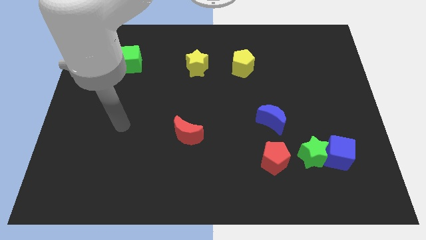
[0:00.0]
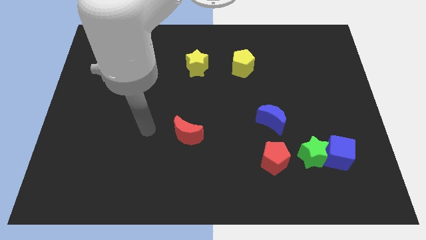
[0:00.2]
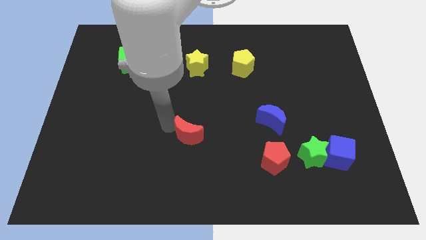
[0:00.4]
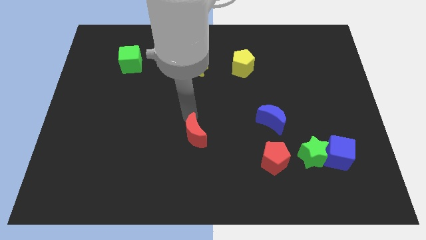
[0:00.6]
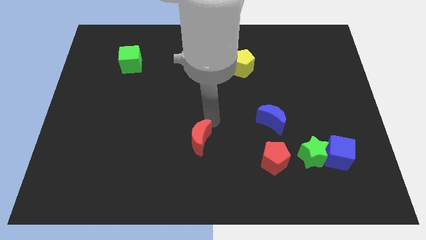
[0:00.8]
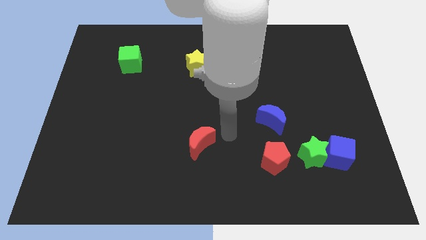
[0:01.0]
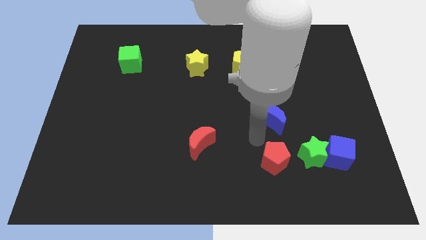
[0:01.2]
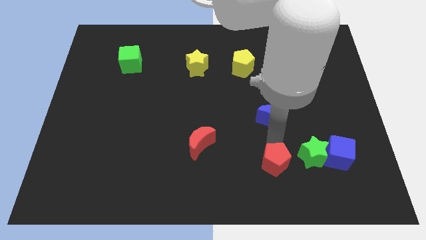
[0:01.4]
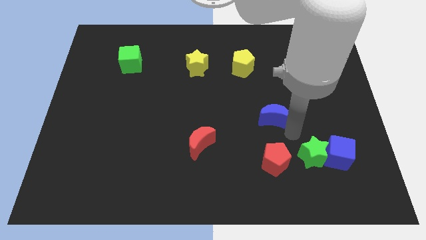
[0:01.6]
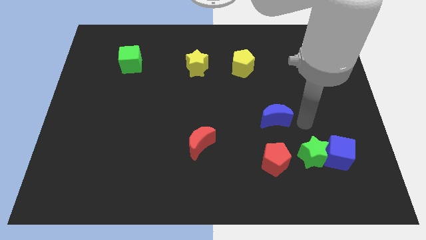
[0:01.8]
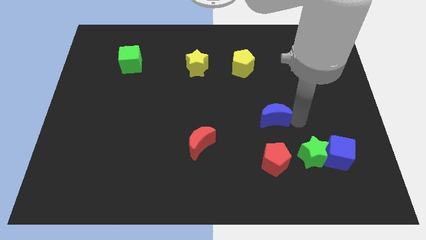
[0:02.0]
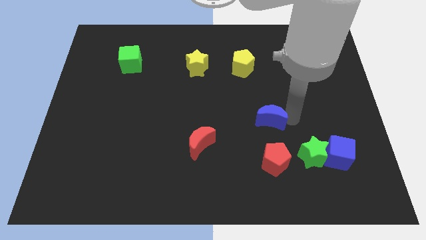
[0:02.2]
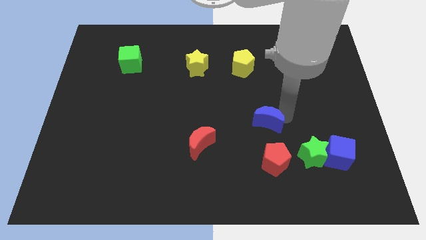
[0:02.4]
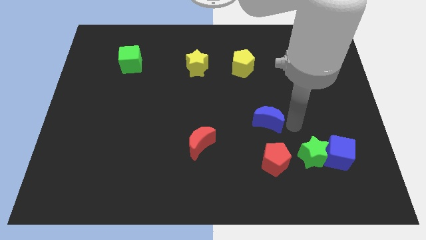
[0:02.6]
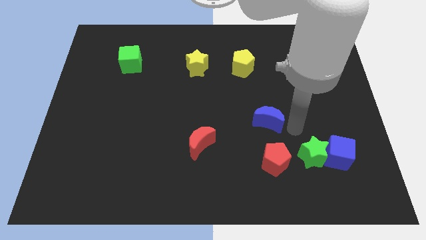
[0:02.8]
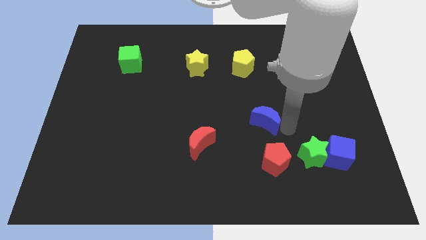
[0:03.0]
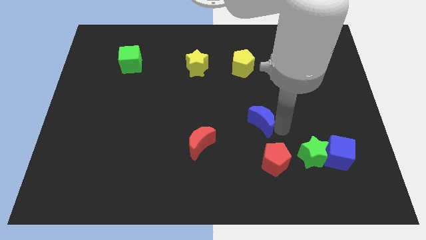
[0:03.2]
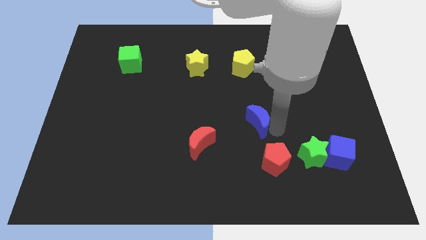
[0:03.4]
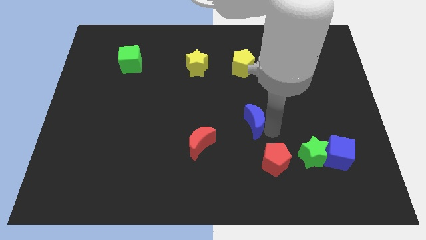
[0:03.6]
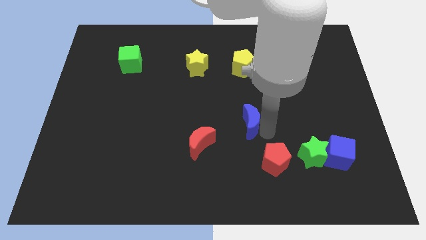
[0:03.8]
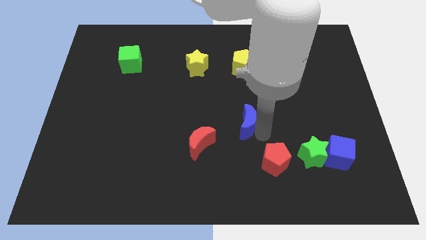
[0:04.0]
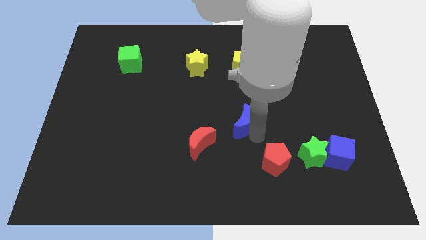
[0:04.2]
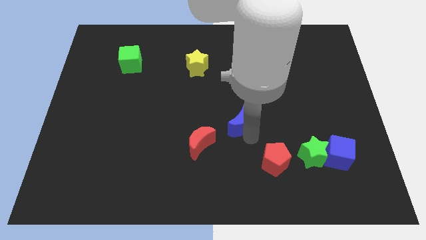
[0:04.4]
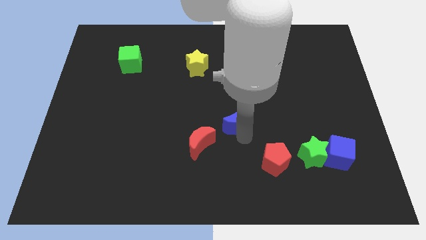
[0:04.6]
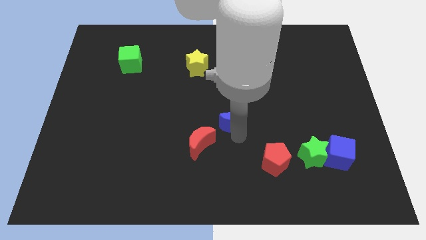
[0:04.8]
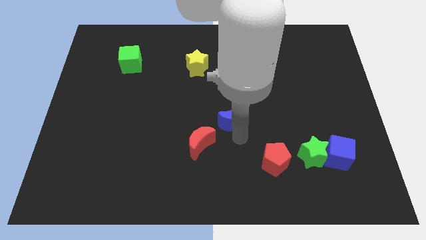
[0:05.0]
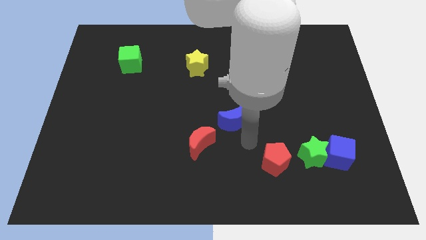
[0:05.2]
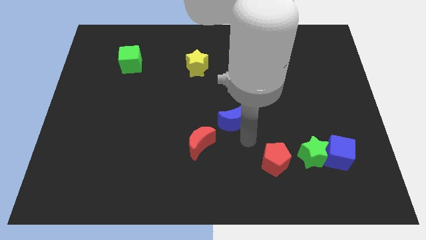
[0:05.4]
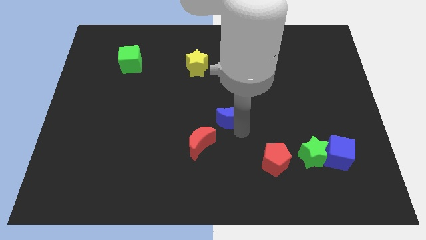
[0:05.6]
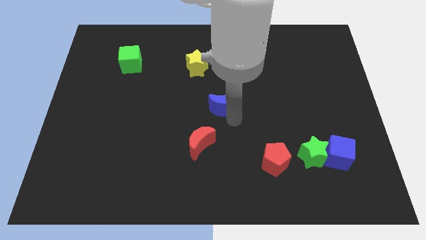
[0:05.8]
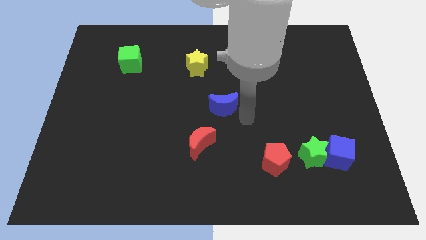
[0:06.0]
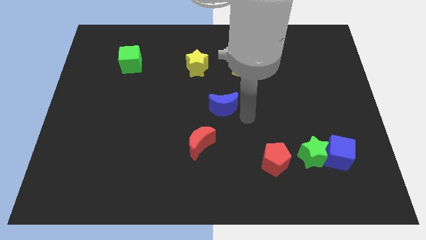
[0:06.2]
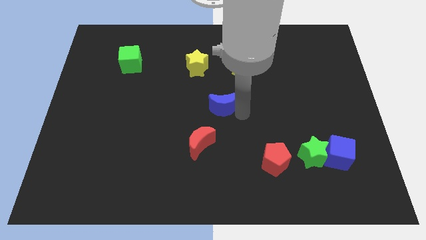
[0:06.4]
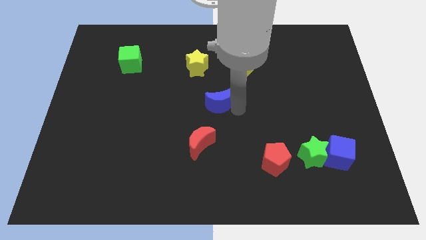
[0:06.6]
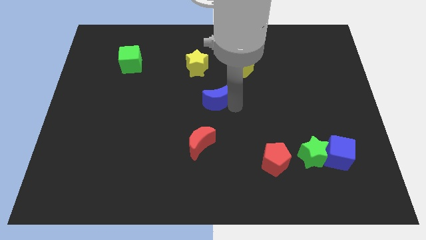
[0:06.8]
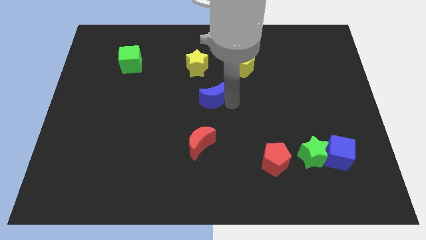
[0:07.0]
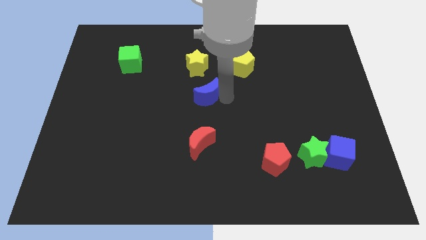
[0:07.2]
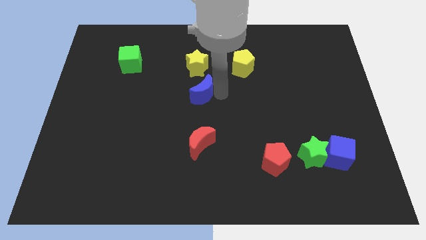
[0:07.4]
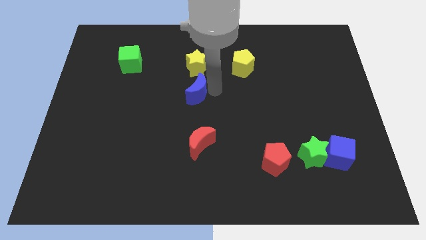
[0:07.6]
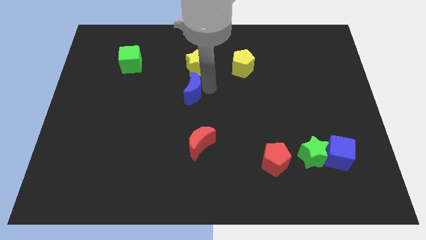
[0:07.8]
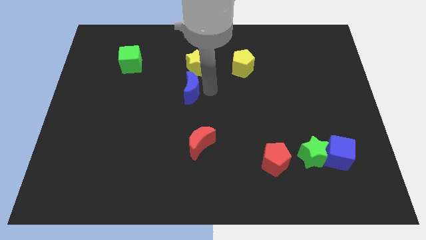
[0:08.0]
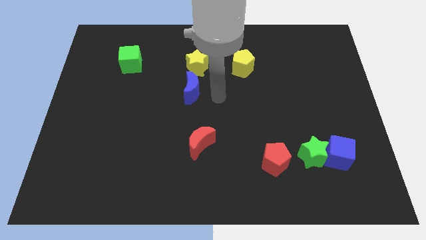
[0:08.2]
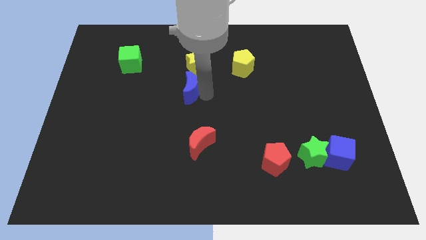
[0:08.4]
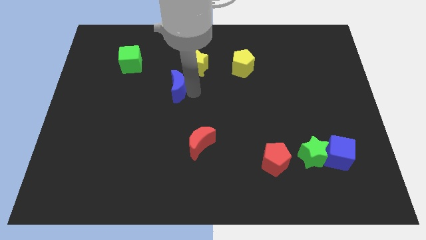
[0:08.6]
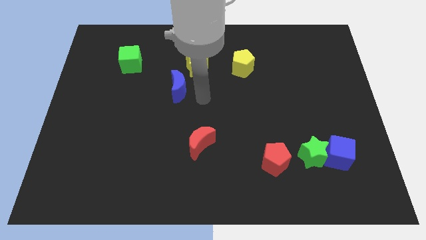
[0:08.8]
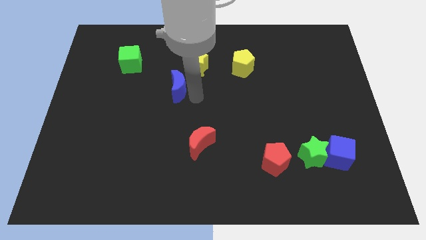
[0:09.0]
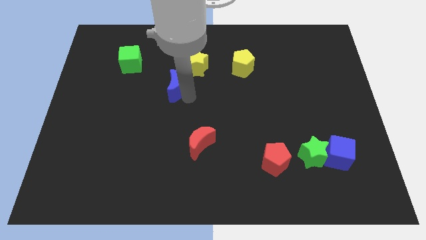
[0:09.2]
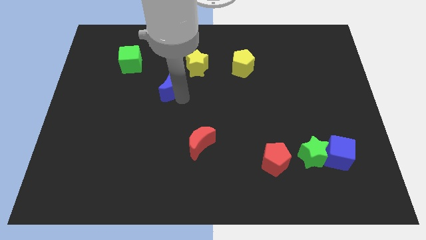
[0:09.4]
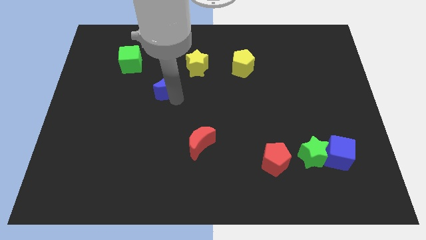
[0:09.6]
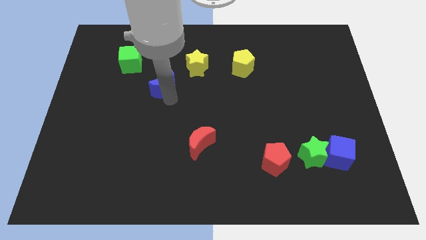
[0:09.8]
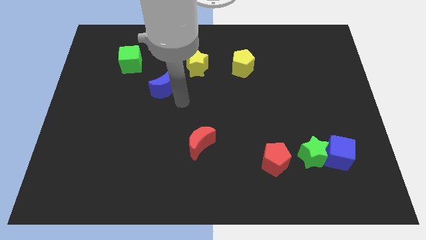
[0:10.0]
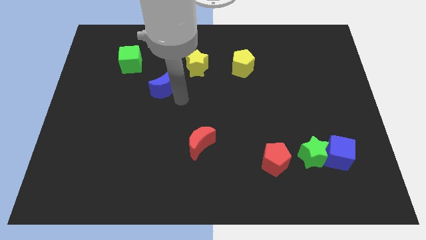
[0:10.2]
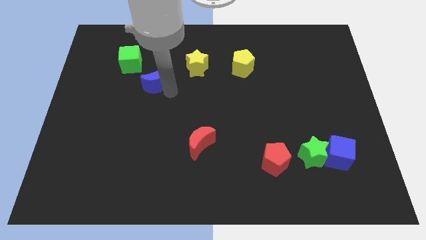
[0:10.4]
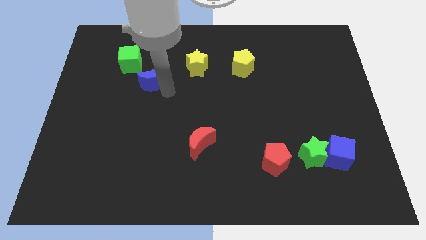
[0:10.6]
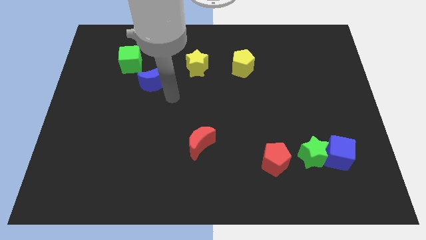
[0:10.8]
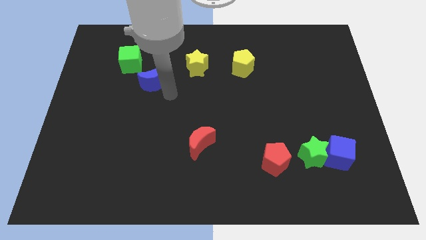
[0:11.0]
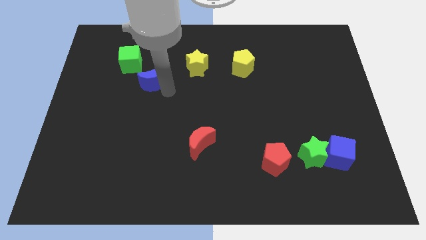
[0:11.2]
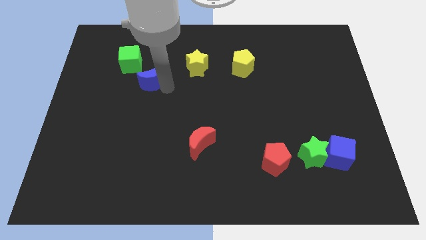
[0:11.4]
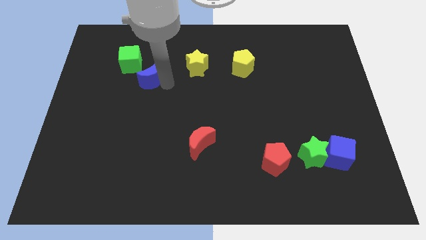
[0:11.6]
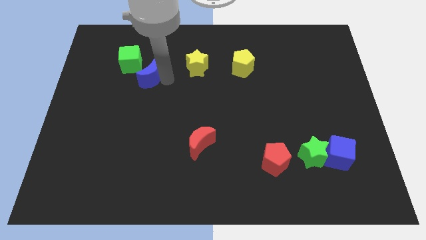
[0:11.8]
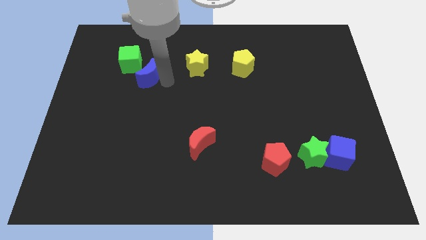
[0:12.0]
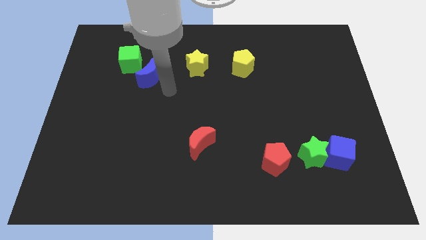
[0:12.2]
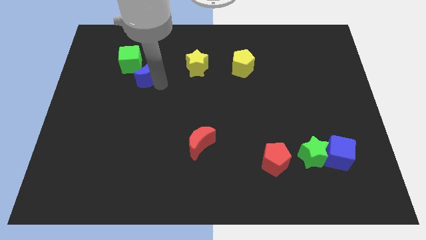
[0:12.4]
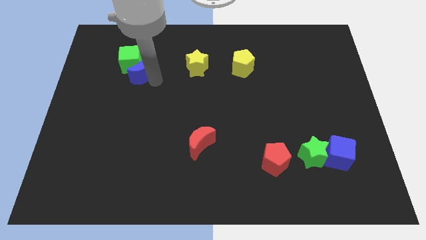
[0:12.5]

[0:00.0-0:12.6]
push the blue moon to the green cube

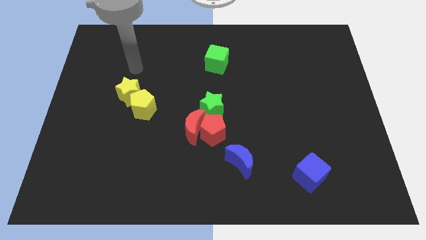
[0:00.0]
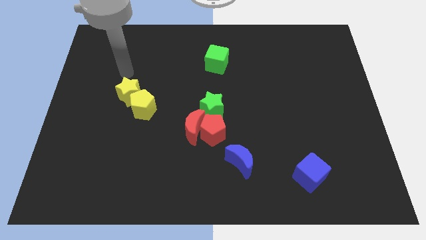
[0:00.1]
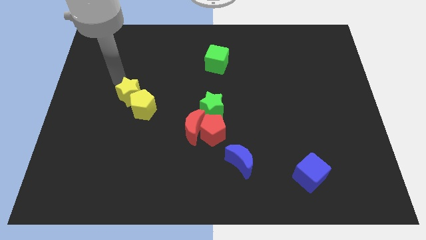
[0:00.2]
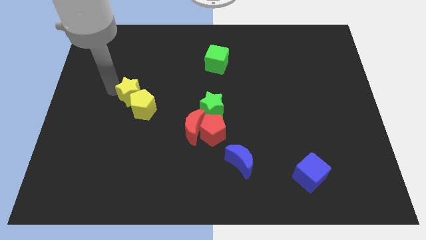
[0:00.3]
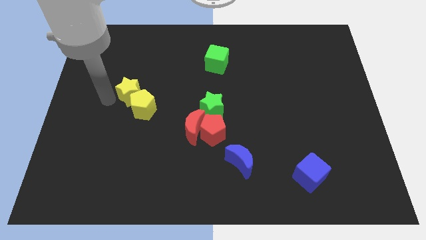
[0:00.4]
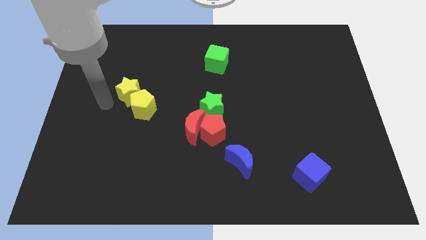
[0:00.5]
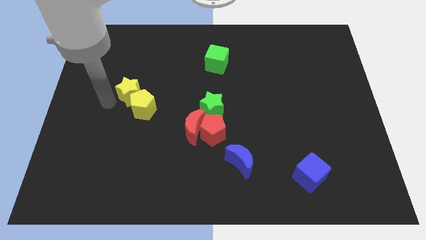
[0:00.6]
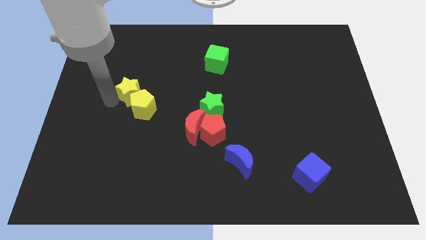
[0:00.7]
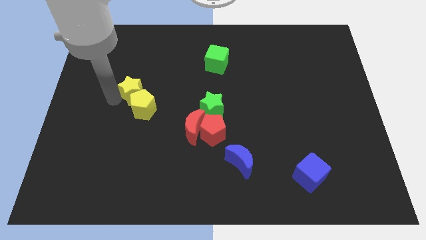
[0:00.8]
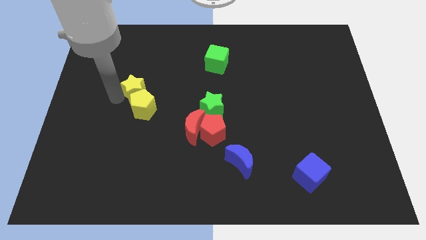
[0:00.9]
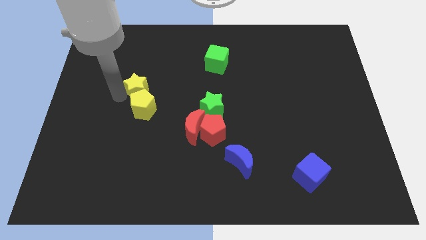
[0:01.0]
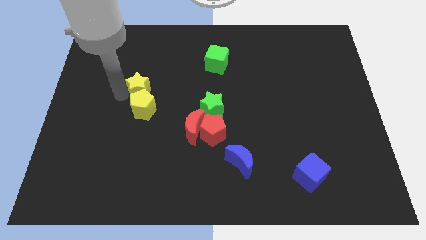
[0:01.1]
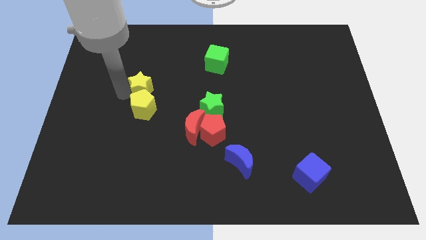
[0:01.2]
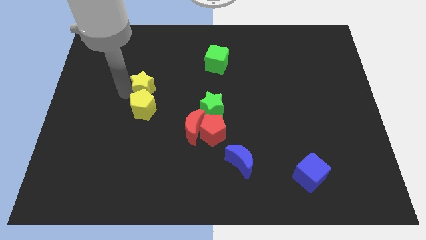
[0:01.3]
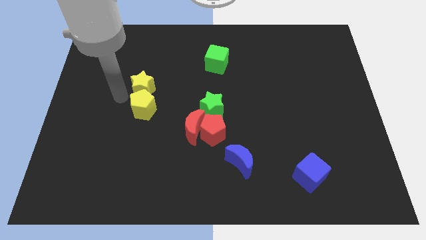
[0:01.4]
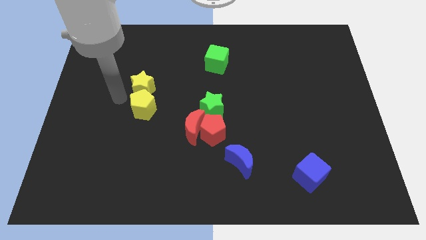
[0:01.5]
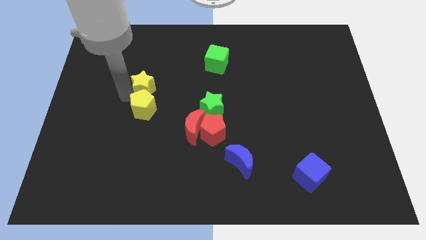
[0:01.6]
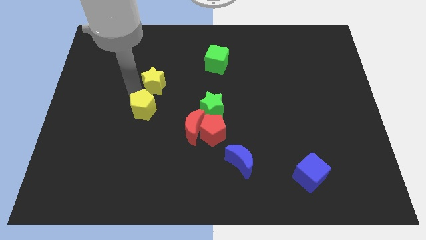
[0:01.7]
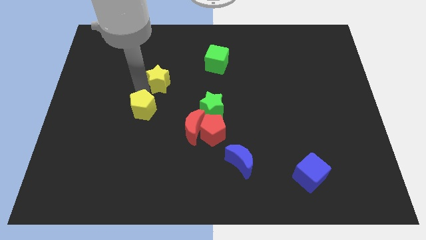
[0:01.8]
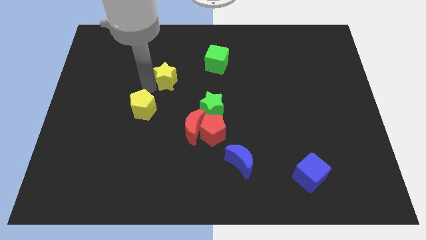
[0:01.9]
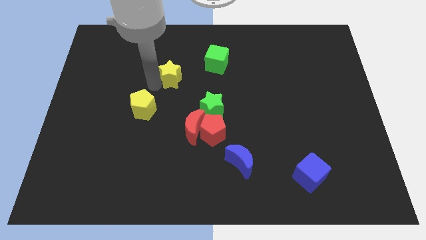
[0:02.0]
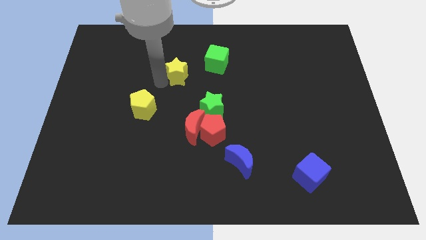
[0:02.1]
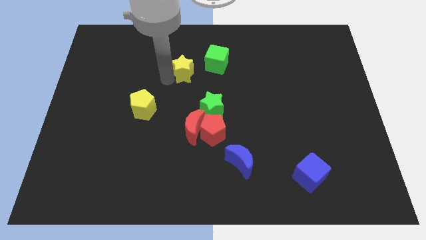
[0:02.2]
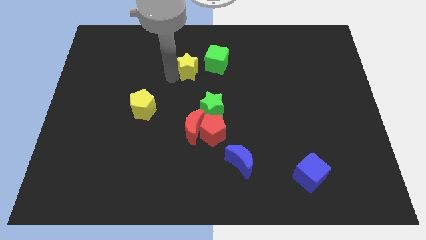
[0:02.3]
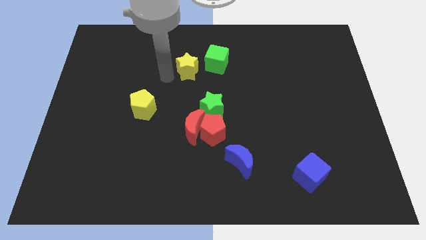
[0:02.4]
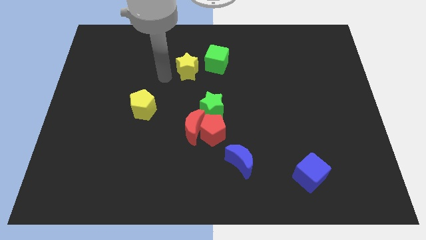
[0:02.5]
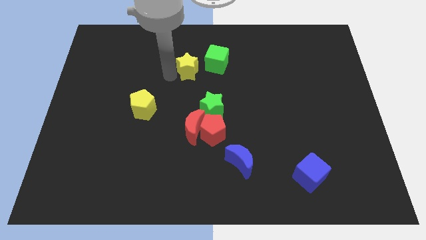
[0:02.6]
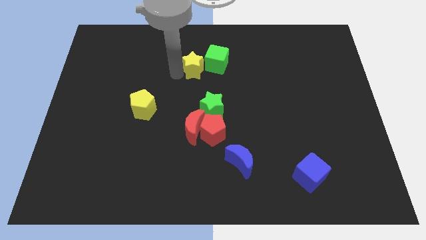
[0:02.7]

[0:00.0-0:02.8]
put the yellow star towards the green cube
